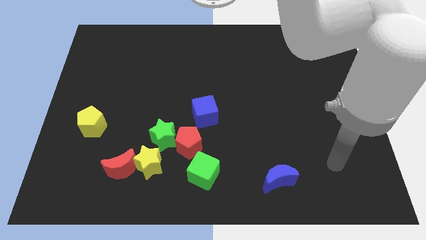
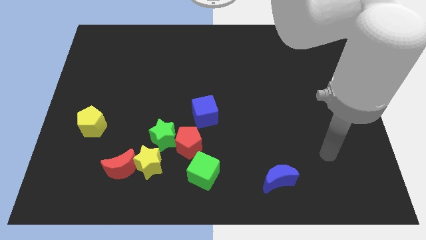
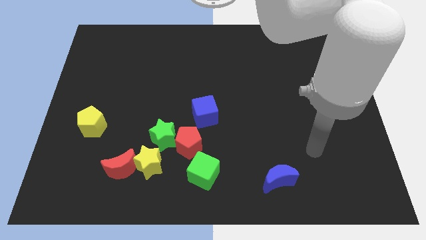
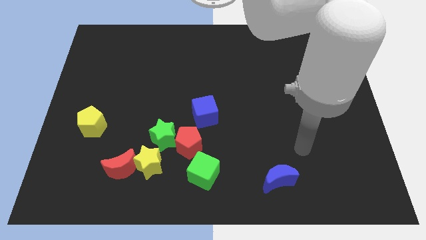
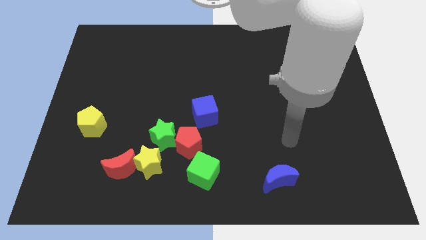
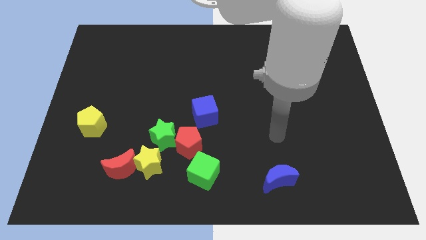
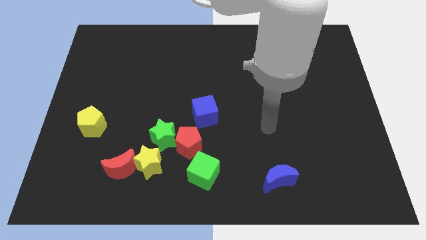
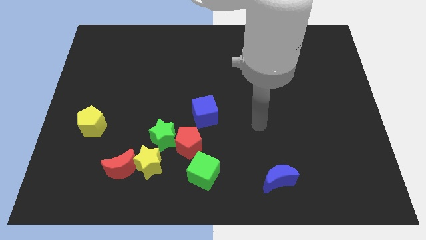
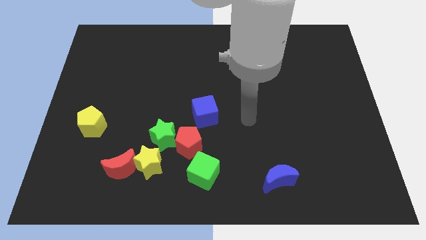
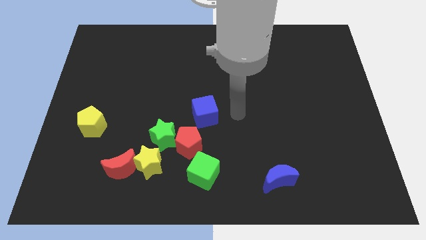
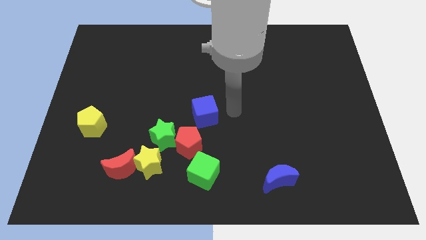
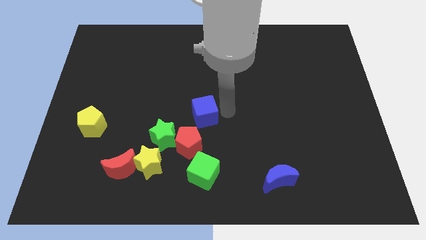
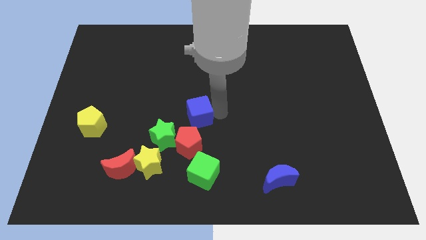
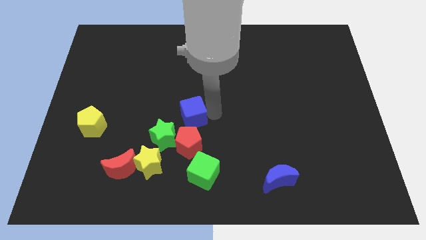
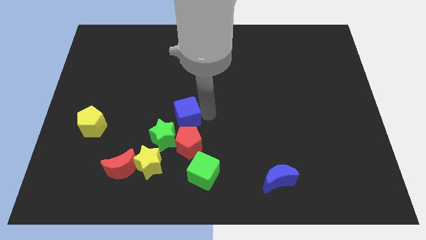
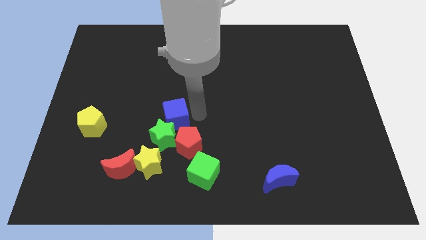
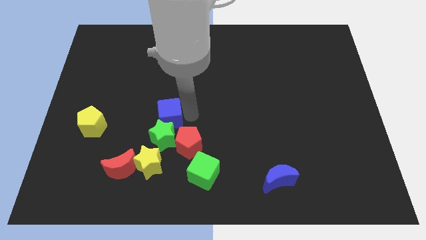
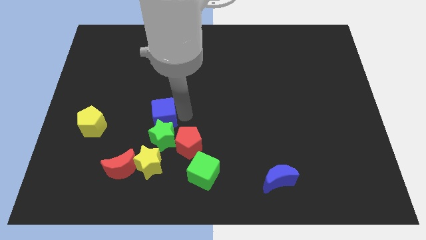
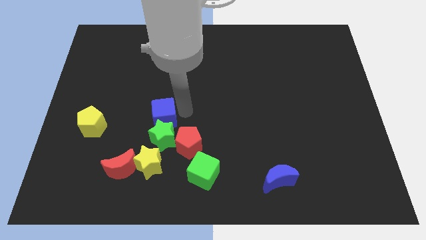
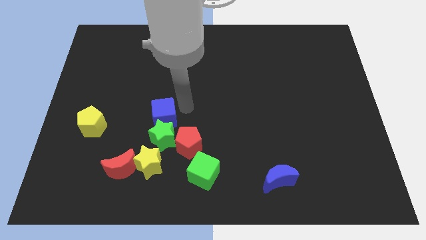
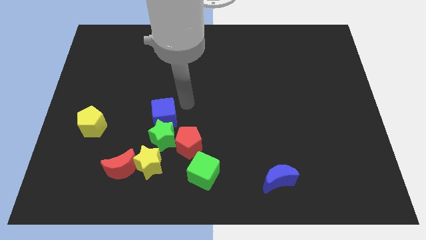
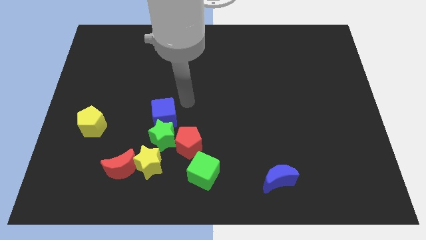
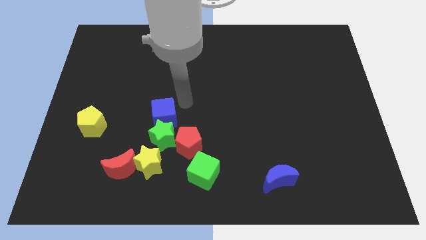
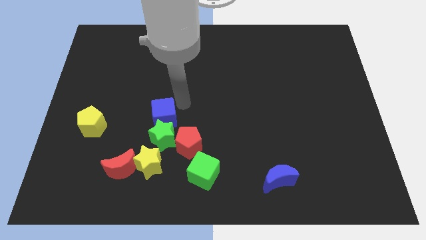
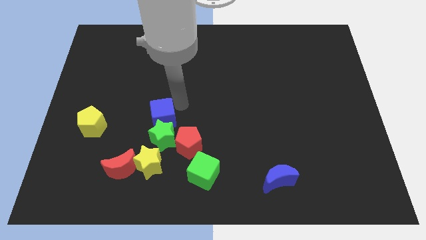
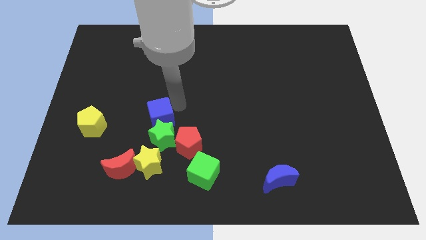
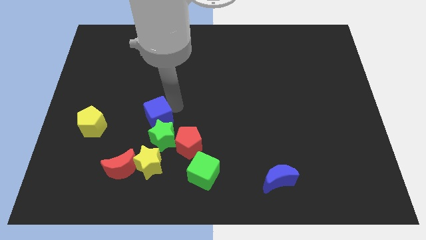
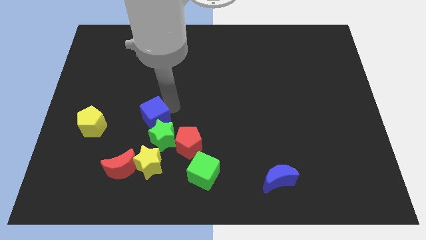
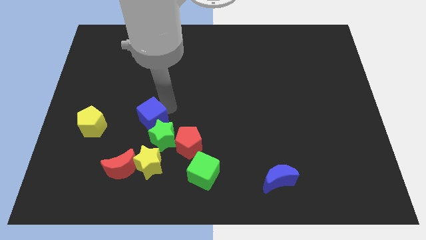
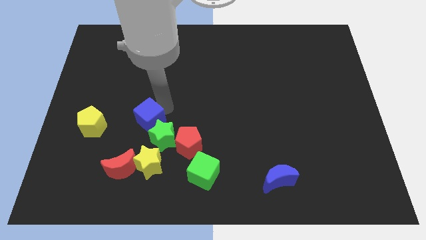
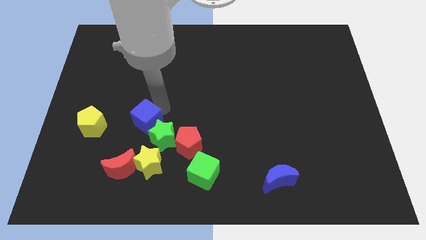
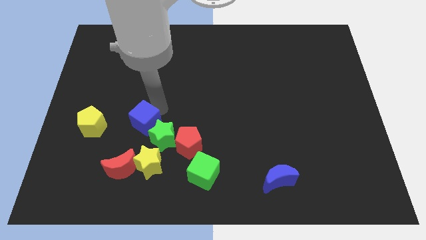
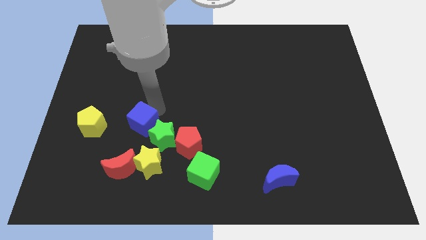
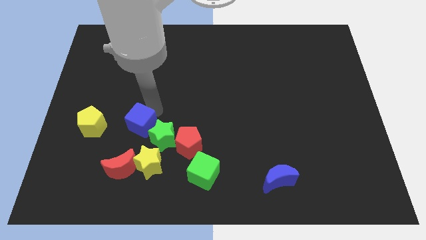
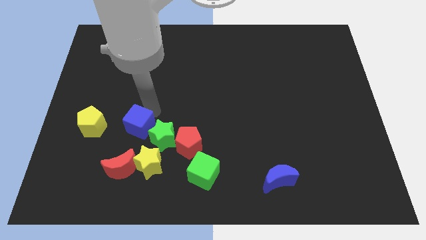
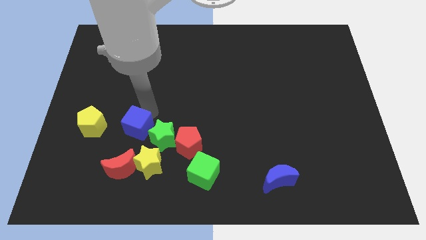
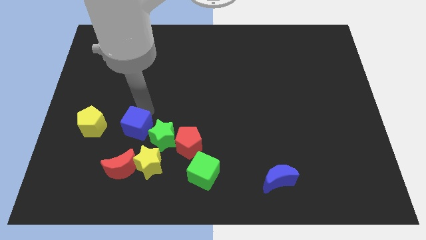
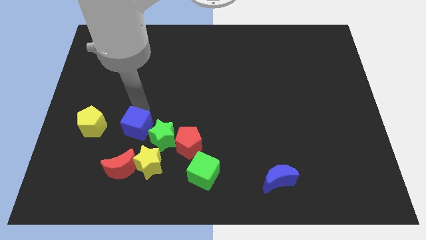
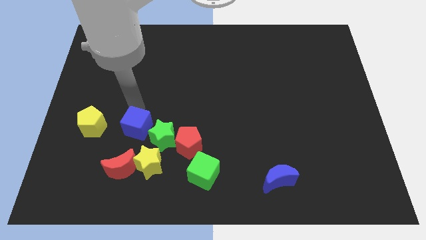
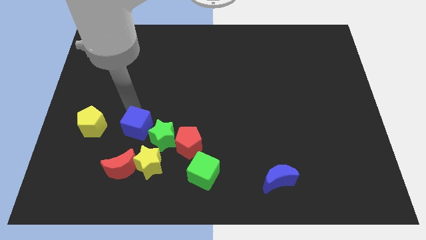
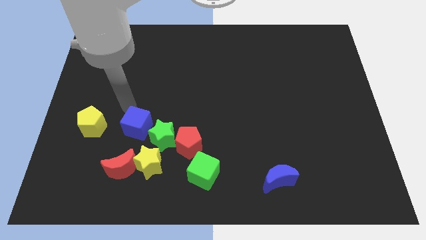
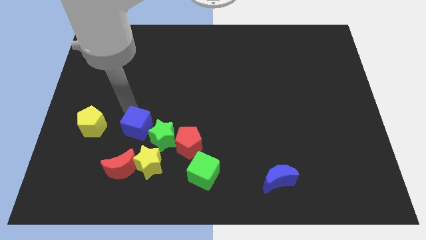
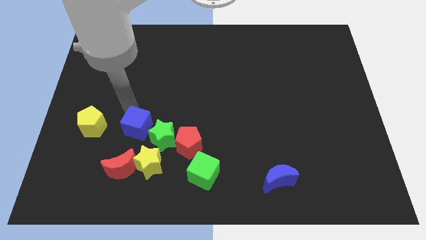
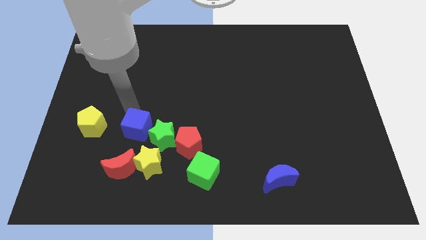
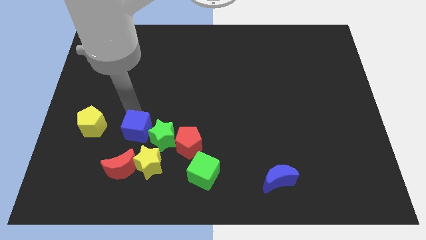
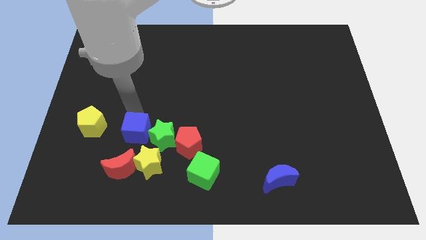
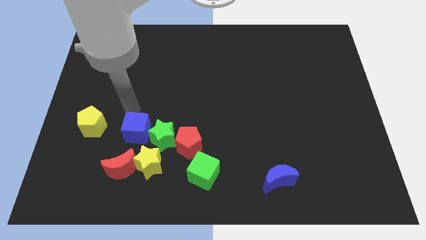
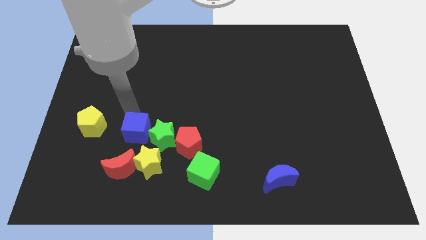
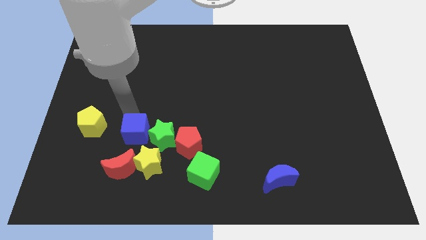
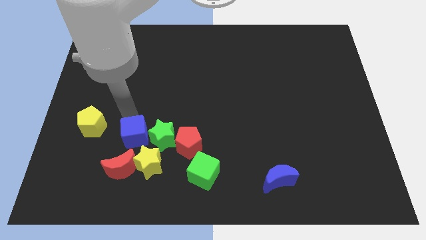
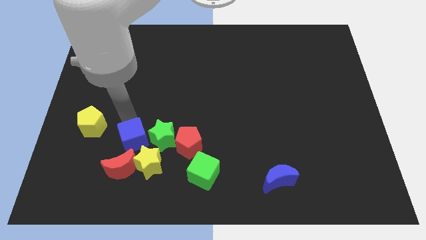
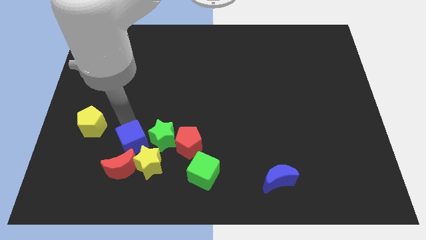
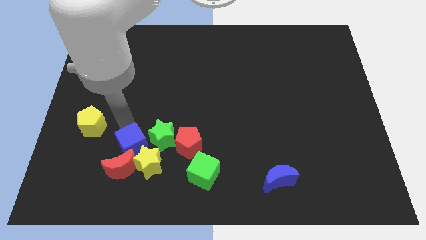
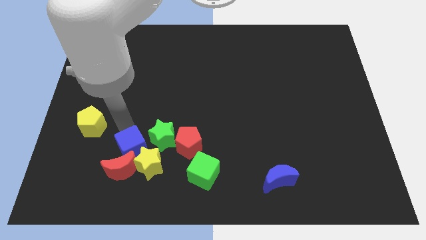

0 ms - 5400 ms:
slide the blue cube to the yellow star

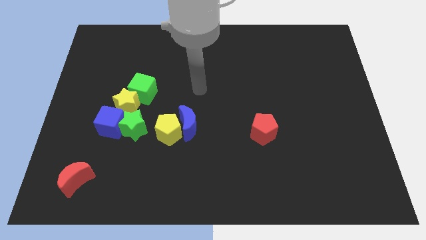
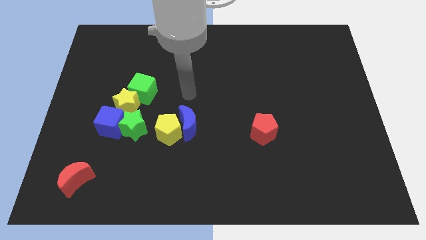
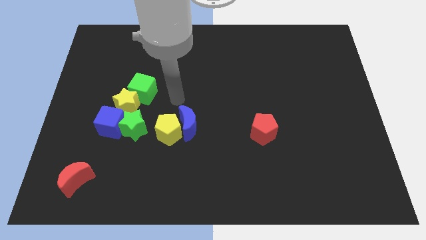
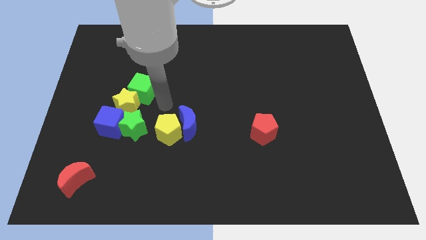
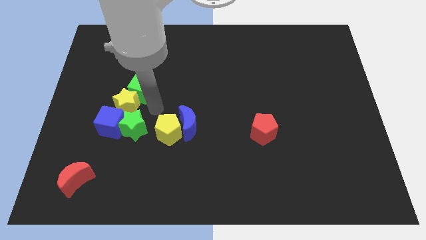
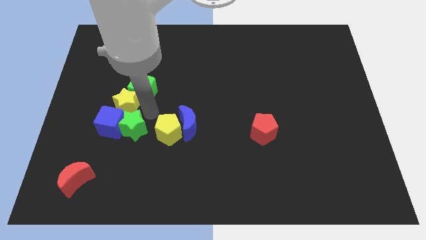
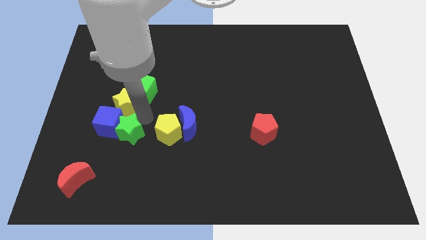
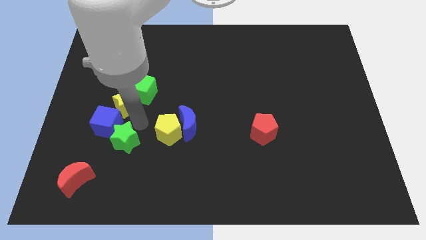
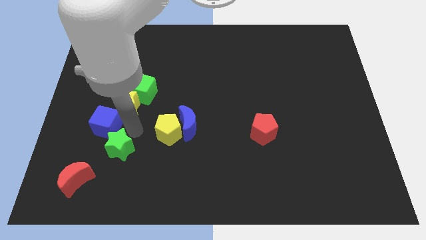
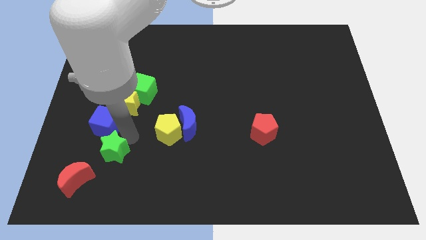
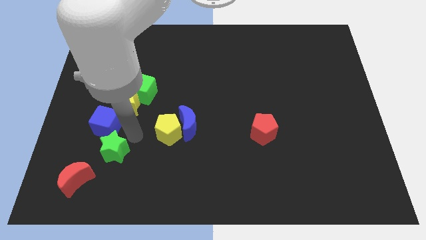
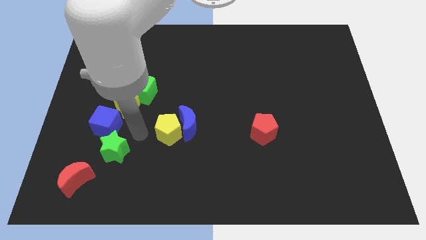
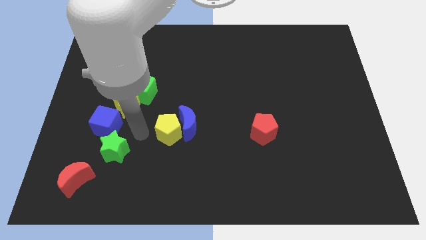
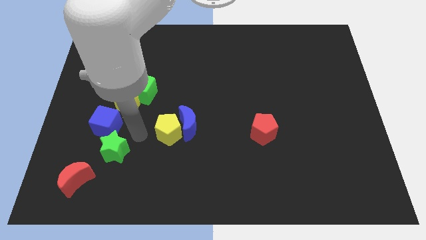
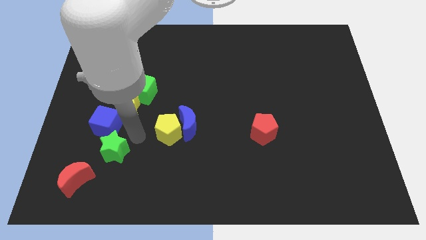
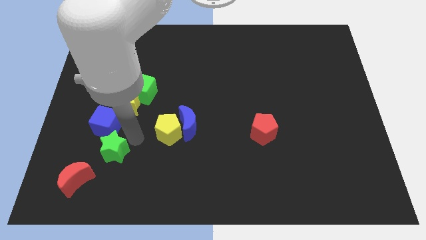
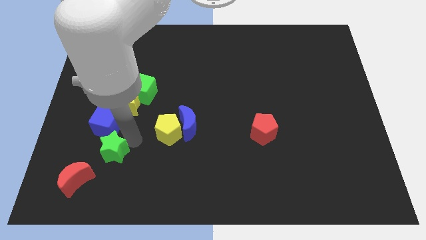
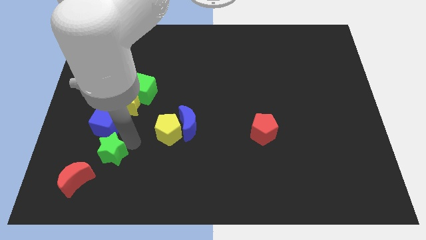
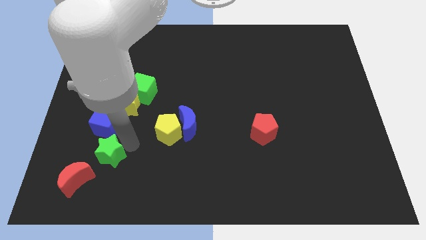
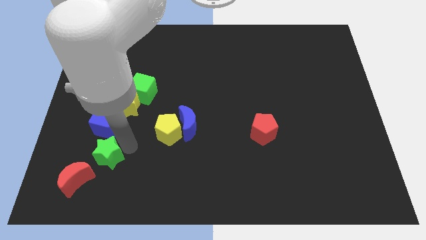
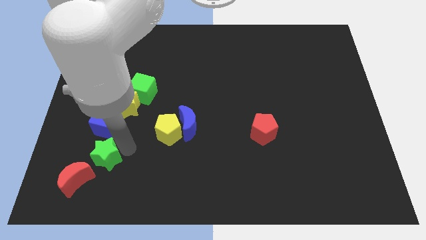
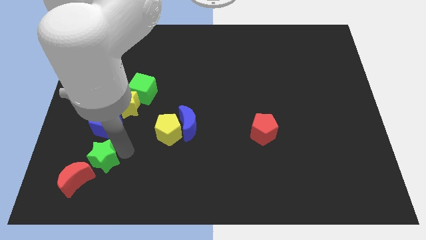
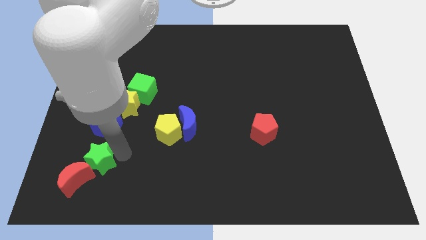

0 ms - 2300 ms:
put the green star towards the red moon

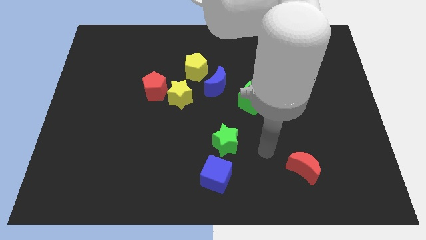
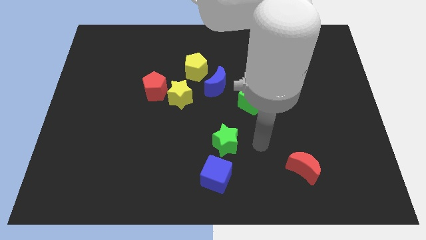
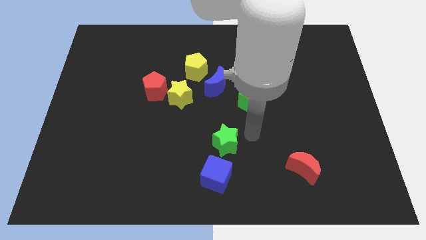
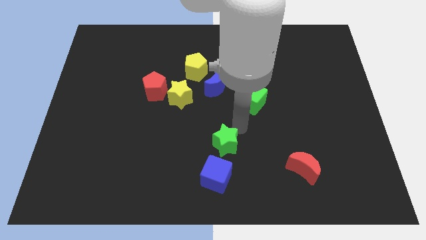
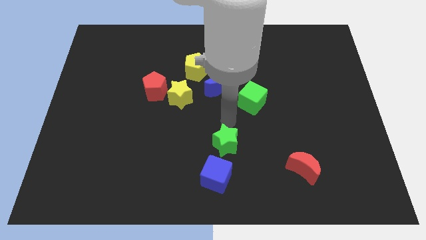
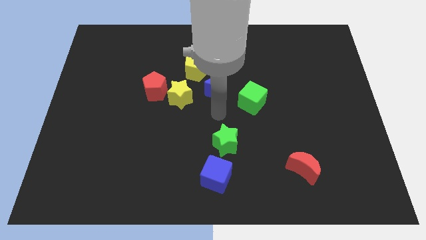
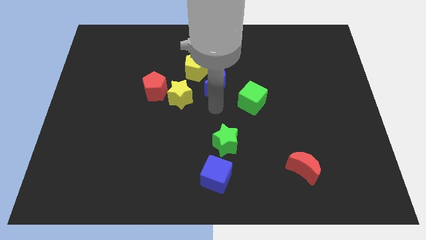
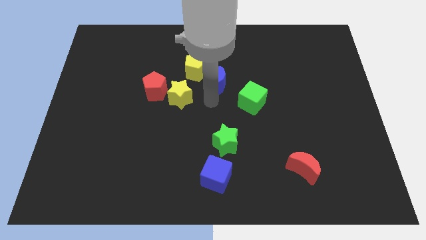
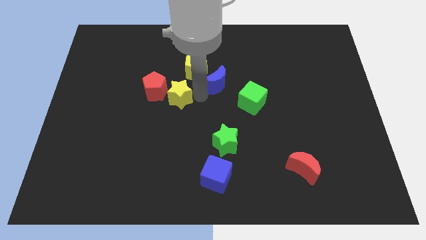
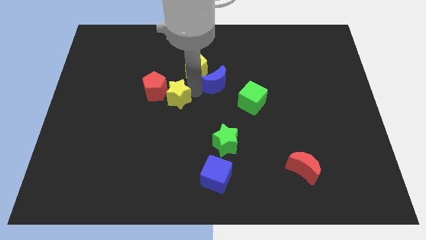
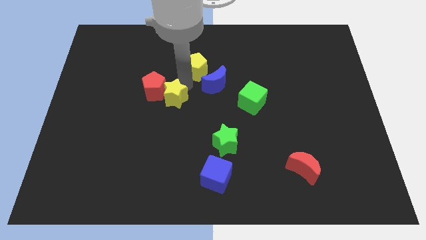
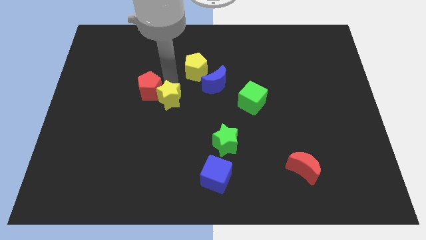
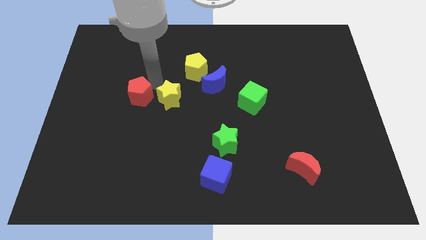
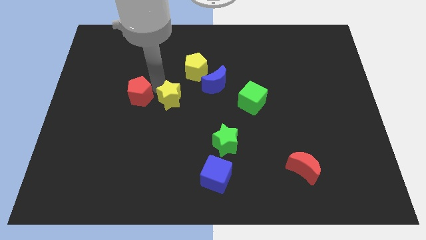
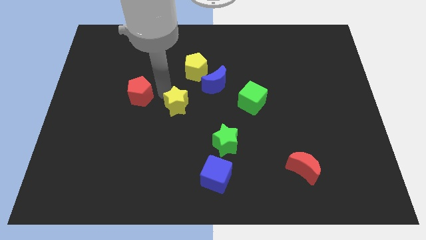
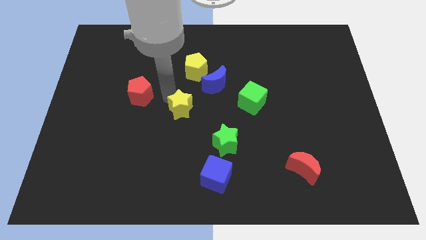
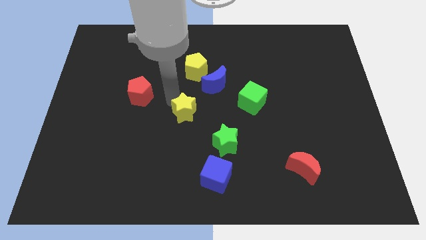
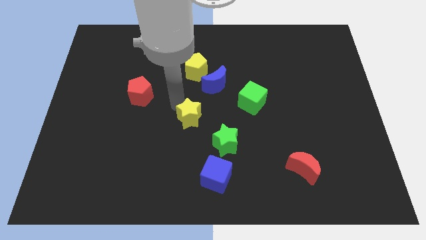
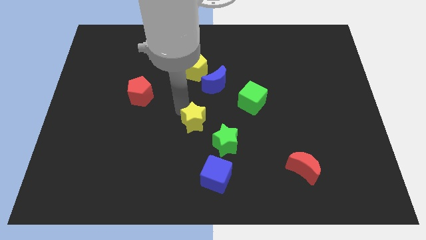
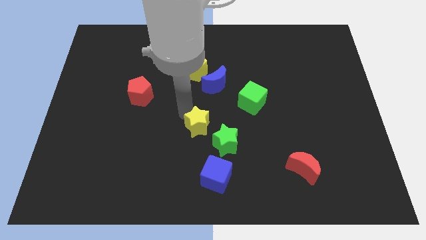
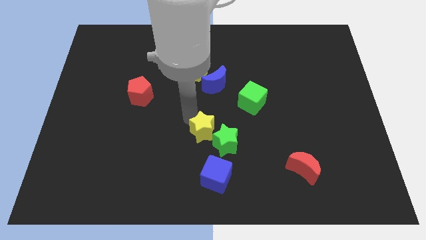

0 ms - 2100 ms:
put the yellow star to the green star
